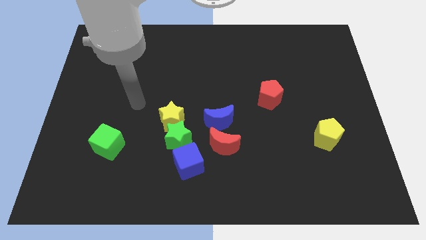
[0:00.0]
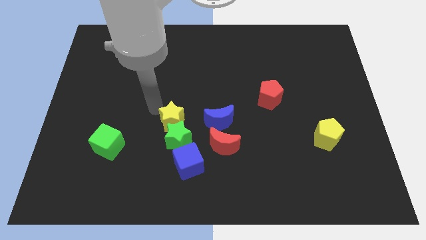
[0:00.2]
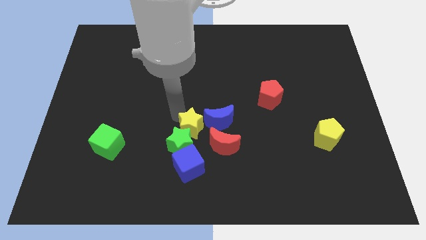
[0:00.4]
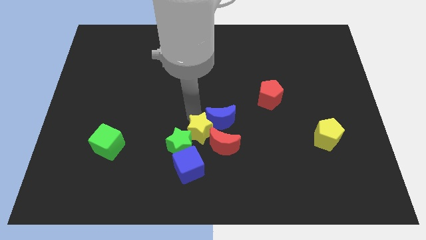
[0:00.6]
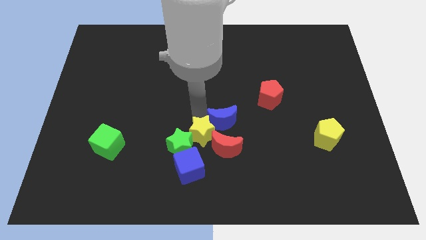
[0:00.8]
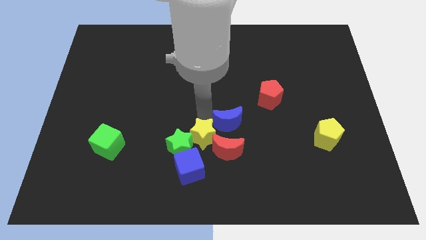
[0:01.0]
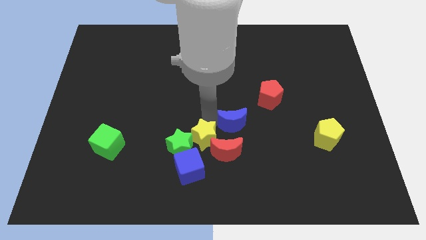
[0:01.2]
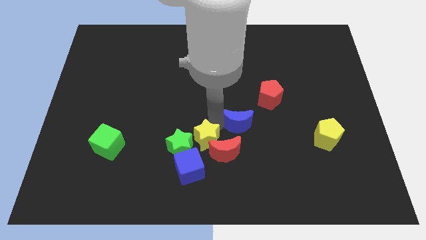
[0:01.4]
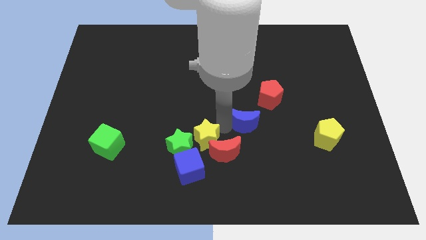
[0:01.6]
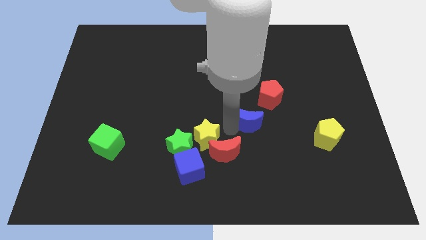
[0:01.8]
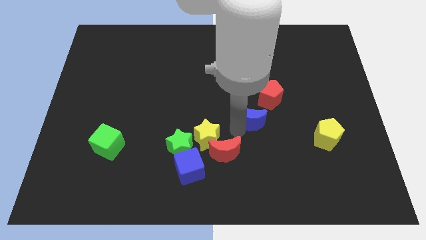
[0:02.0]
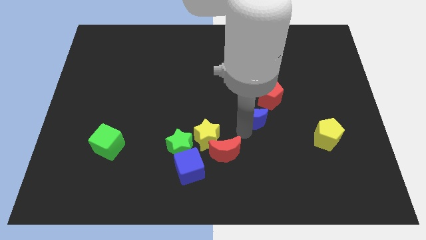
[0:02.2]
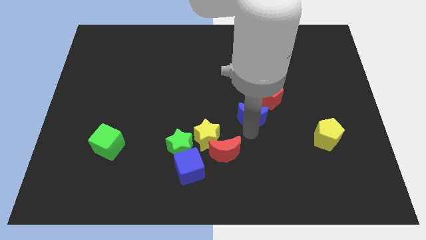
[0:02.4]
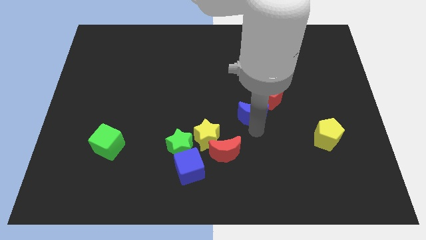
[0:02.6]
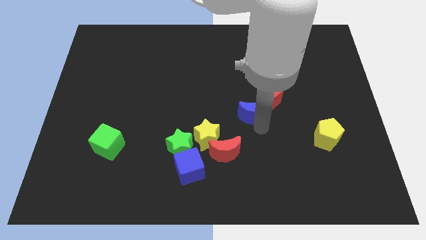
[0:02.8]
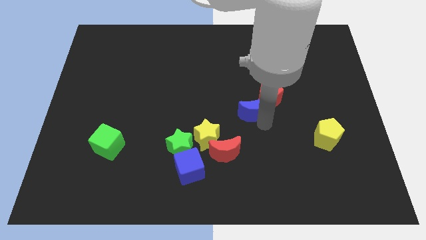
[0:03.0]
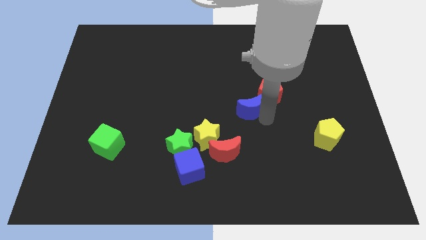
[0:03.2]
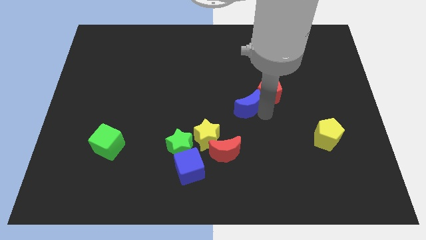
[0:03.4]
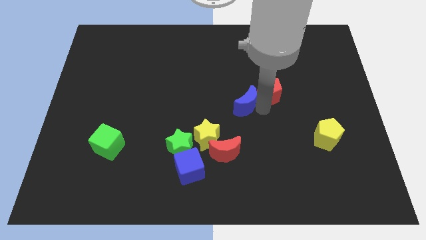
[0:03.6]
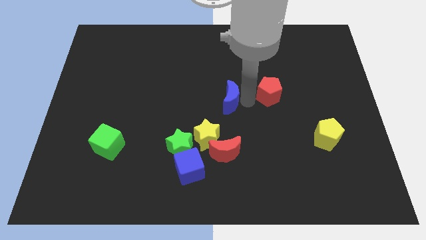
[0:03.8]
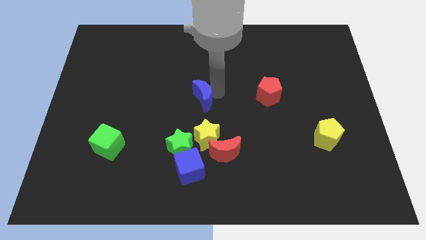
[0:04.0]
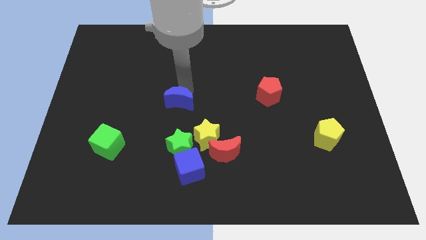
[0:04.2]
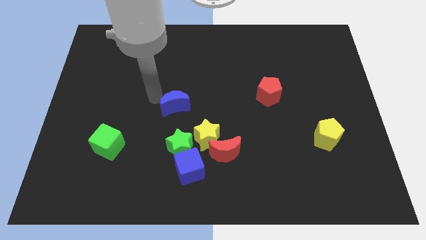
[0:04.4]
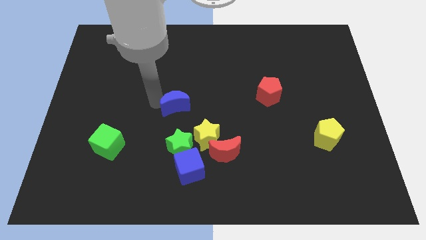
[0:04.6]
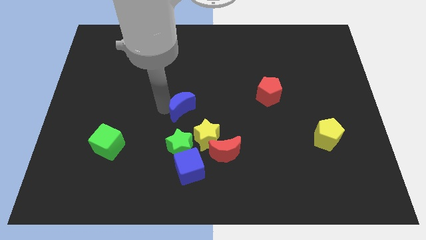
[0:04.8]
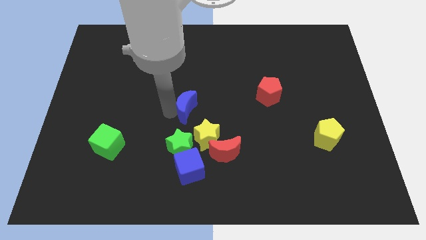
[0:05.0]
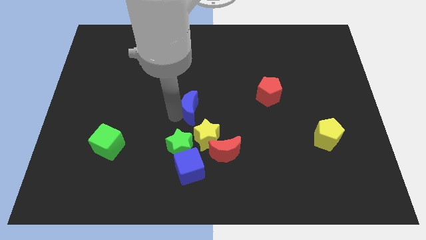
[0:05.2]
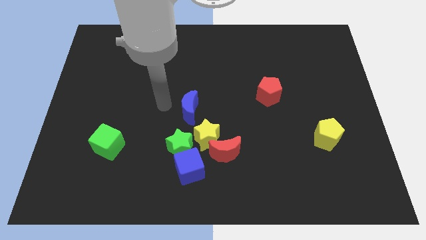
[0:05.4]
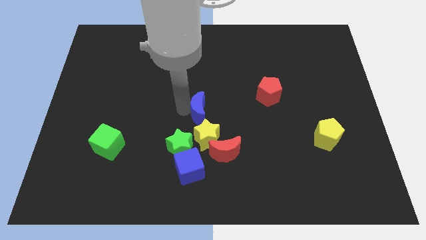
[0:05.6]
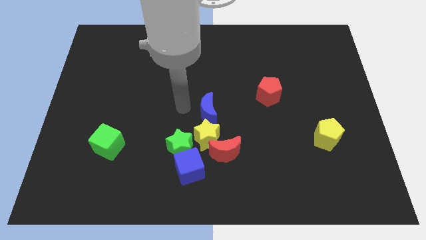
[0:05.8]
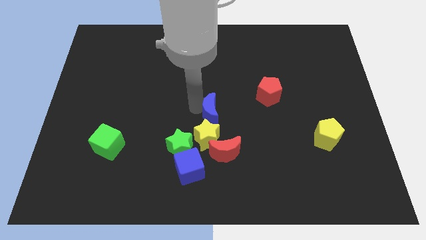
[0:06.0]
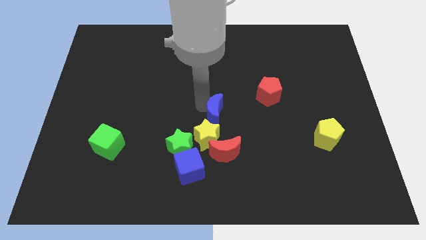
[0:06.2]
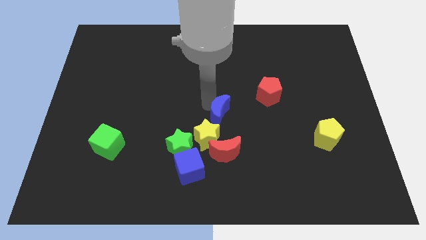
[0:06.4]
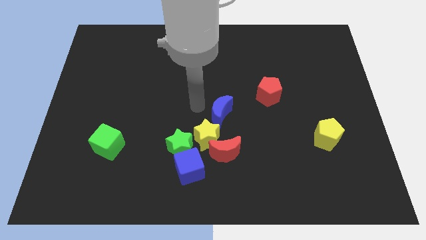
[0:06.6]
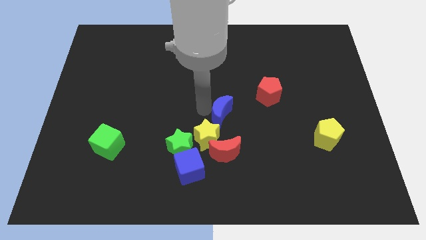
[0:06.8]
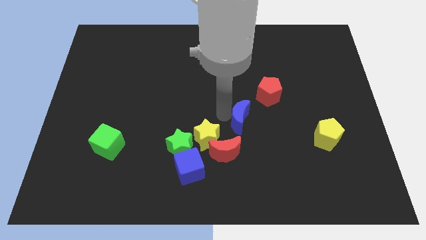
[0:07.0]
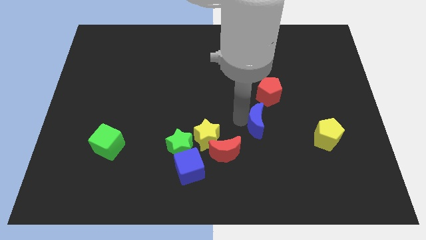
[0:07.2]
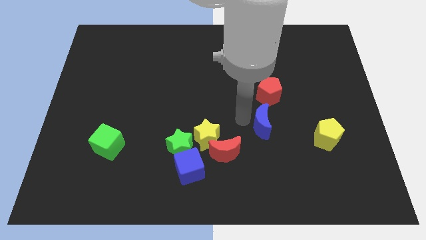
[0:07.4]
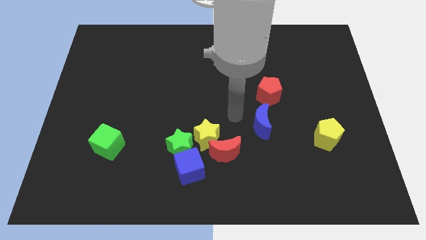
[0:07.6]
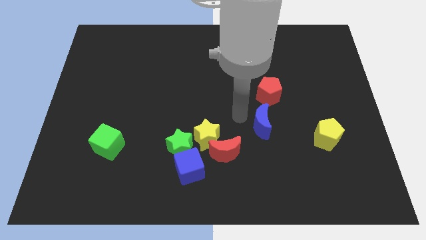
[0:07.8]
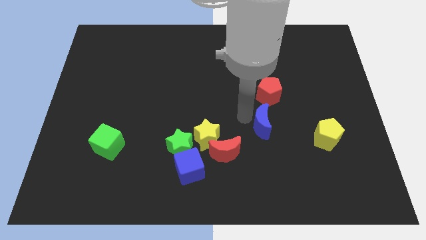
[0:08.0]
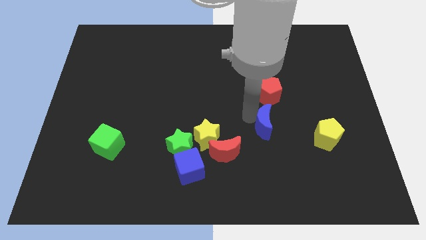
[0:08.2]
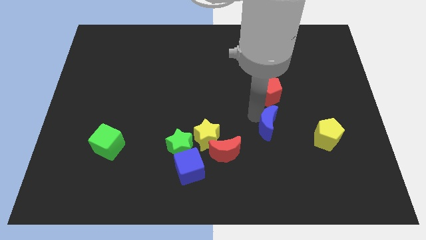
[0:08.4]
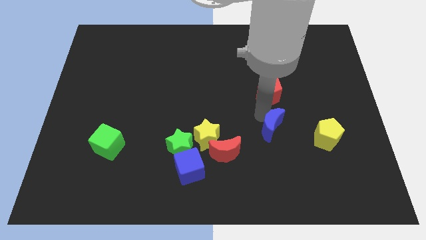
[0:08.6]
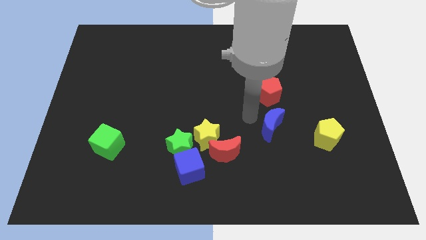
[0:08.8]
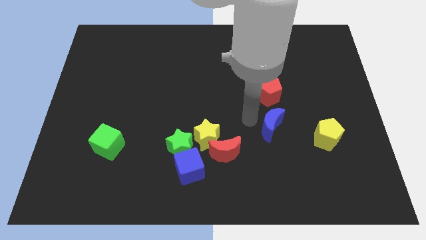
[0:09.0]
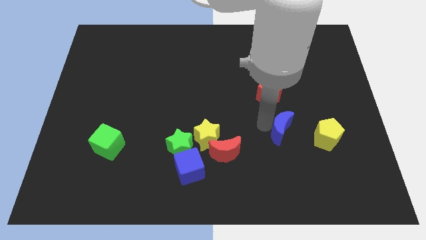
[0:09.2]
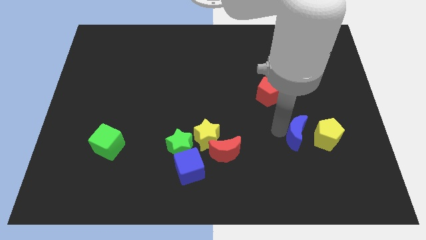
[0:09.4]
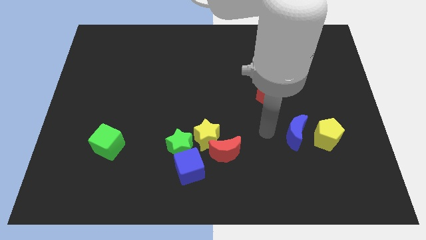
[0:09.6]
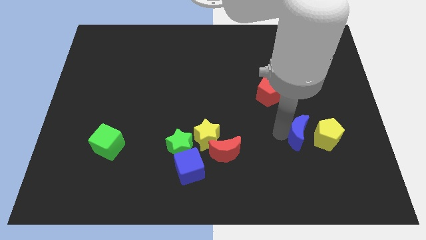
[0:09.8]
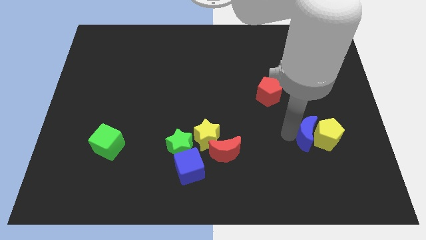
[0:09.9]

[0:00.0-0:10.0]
slide the blue moon to the yellow pentagon

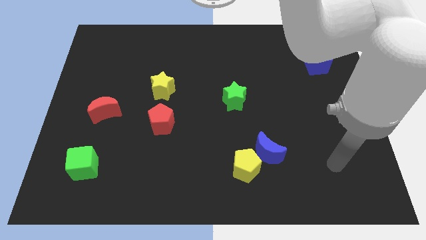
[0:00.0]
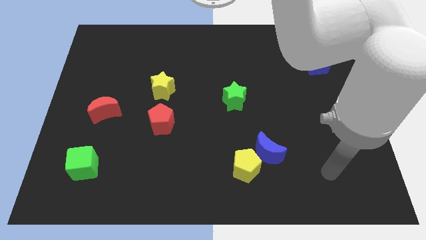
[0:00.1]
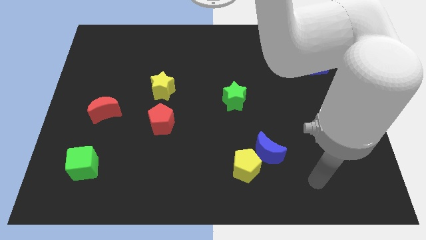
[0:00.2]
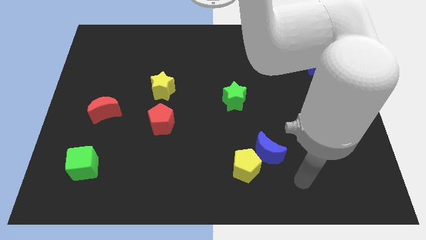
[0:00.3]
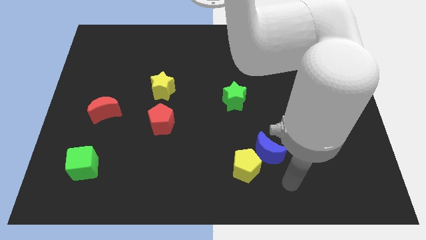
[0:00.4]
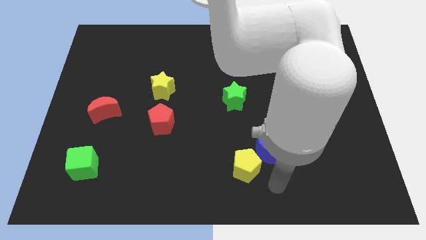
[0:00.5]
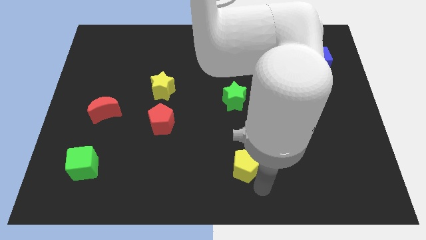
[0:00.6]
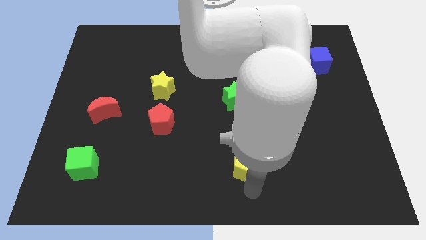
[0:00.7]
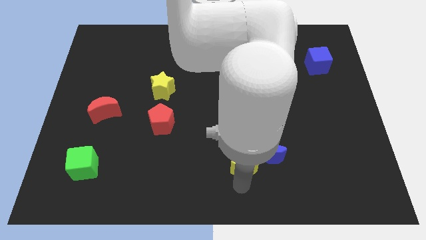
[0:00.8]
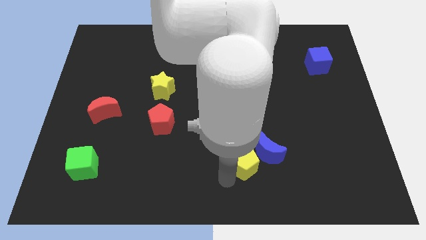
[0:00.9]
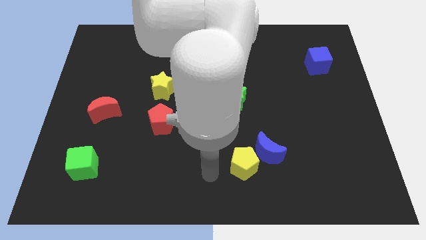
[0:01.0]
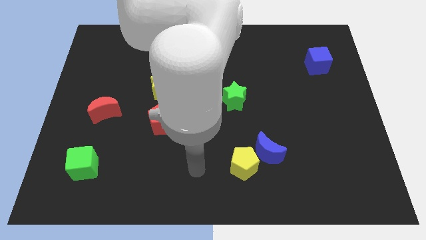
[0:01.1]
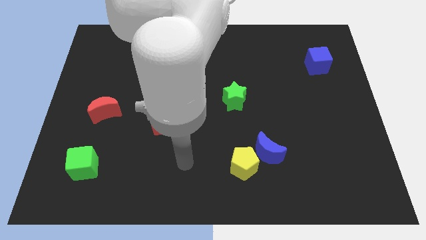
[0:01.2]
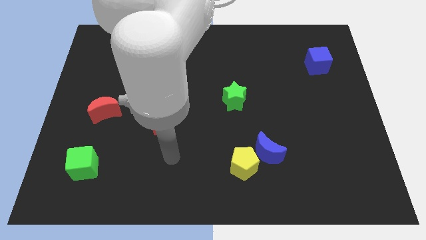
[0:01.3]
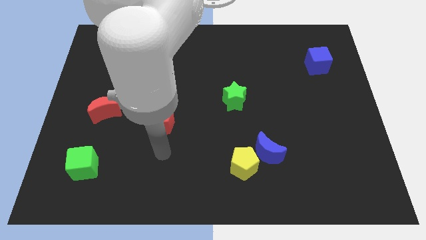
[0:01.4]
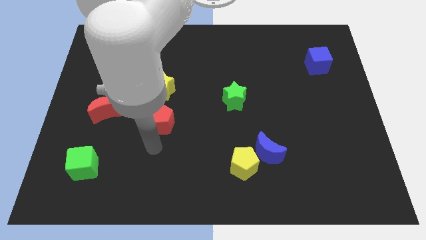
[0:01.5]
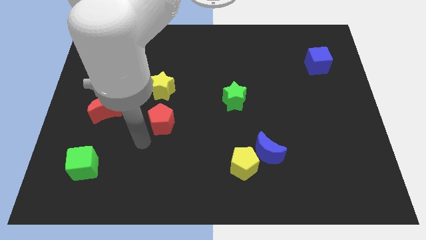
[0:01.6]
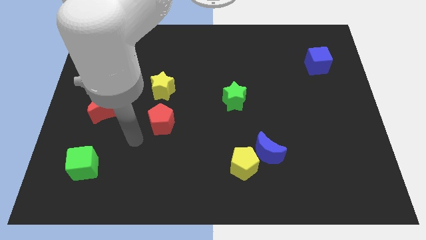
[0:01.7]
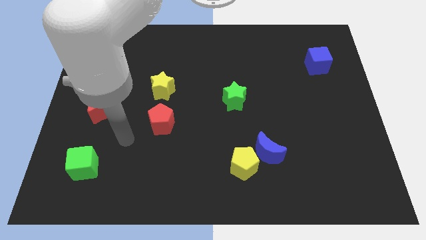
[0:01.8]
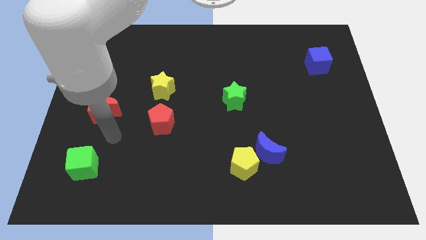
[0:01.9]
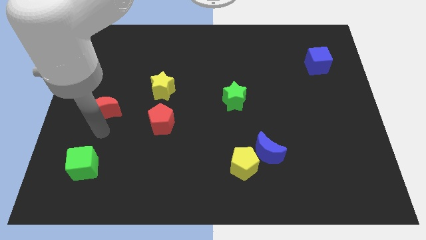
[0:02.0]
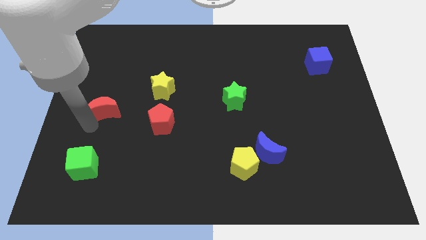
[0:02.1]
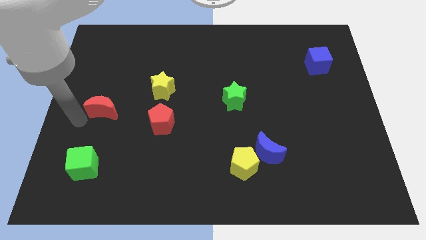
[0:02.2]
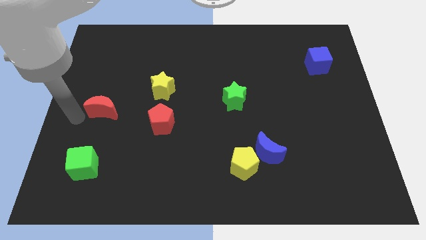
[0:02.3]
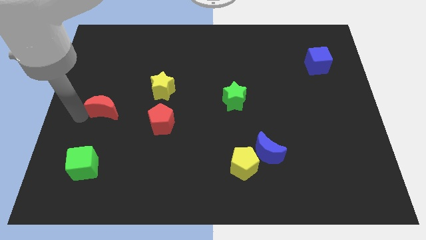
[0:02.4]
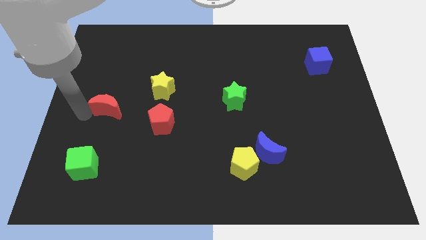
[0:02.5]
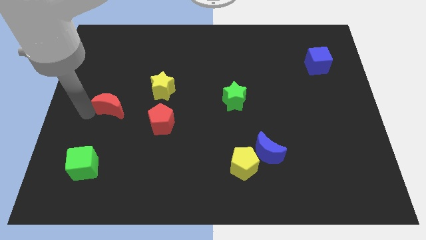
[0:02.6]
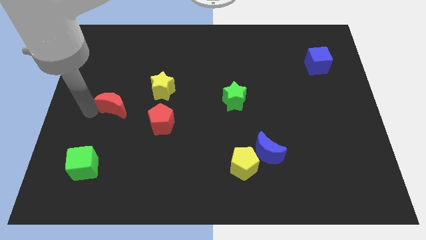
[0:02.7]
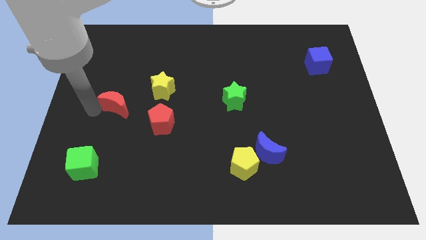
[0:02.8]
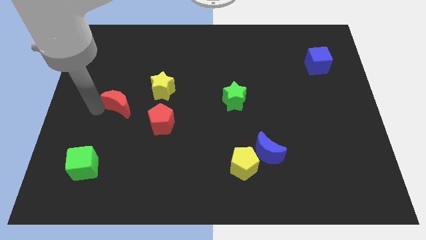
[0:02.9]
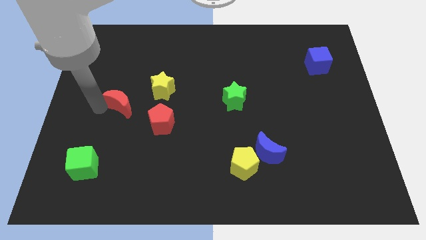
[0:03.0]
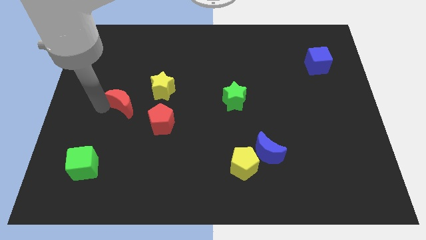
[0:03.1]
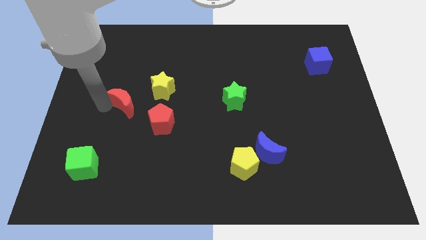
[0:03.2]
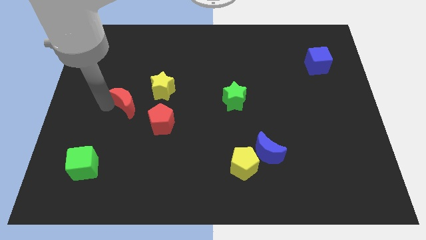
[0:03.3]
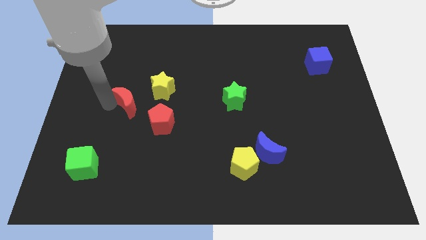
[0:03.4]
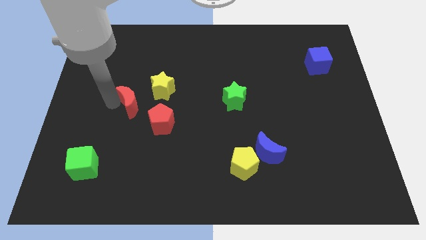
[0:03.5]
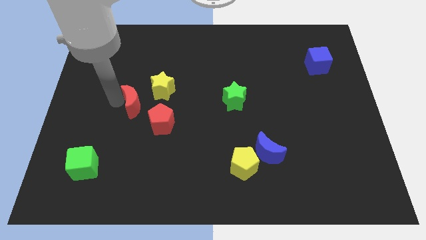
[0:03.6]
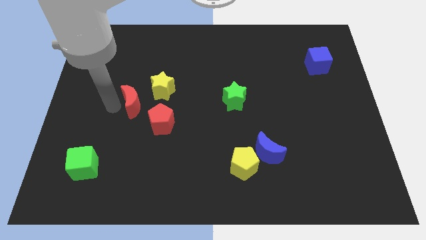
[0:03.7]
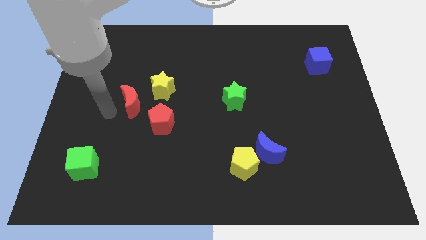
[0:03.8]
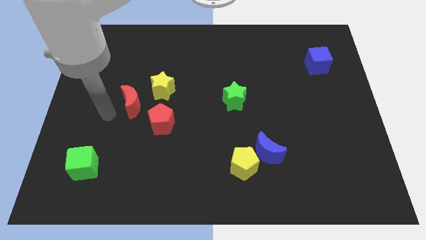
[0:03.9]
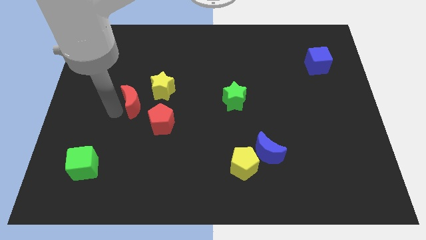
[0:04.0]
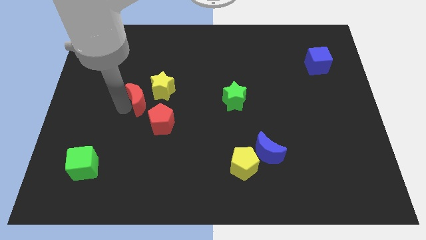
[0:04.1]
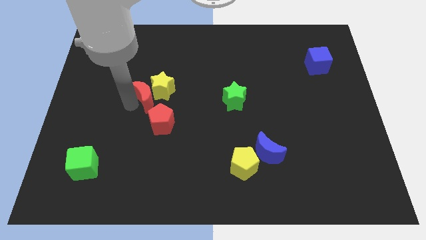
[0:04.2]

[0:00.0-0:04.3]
push the red moon to the yellow star
